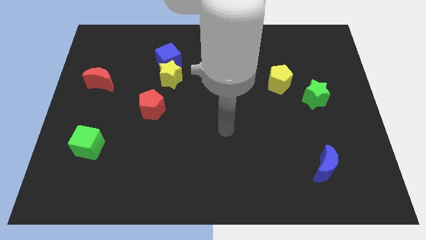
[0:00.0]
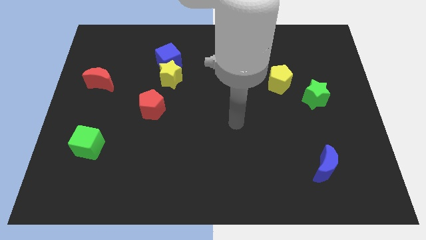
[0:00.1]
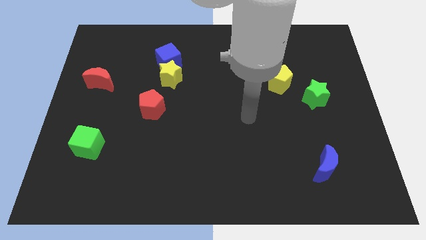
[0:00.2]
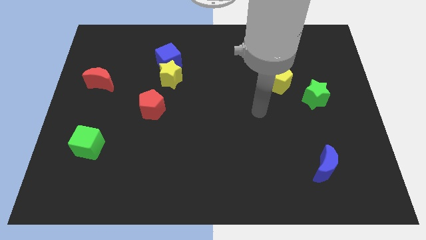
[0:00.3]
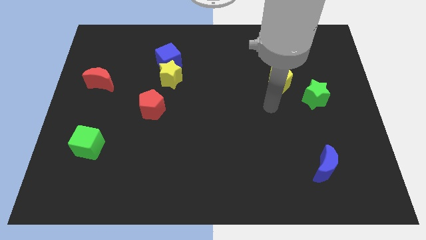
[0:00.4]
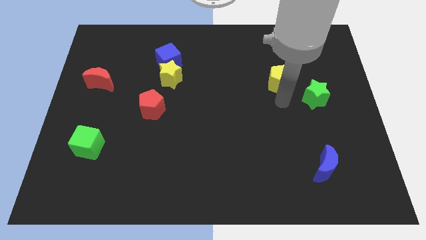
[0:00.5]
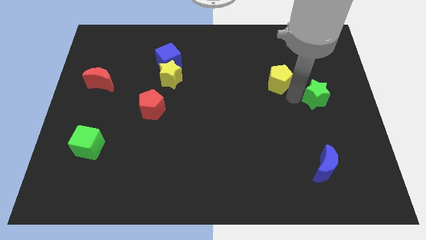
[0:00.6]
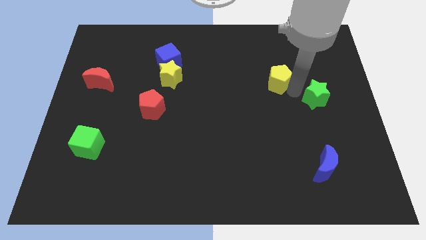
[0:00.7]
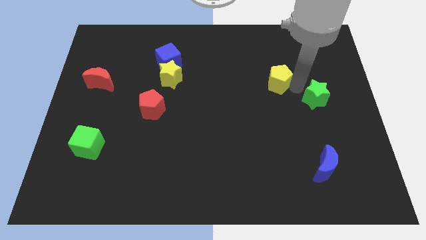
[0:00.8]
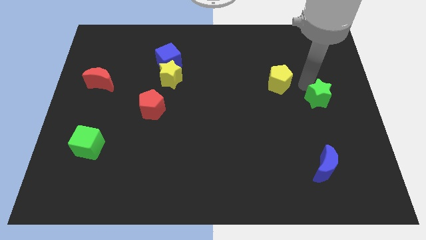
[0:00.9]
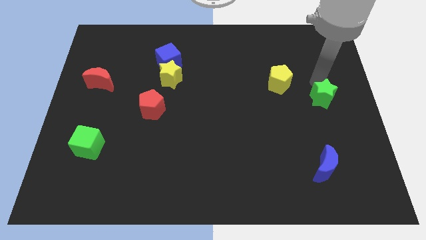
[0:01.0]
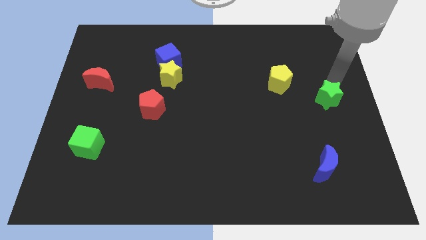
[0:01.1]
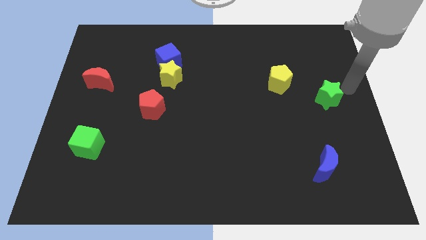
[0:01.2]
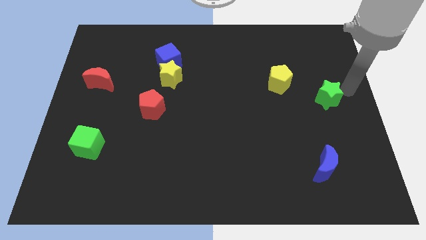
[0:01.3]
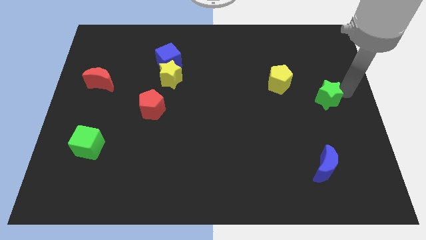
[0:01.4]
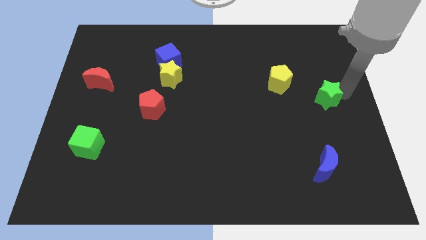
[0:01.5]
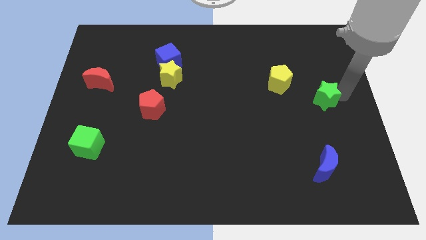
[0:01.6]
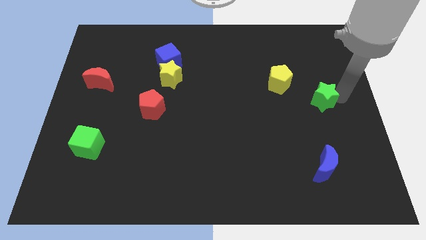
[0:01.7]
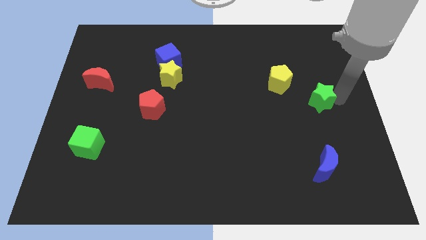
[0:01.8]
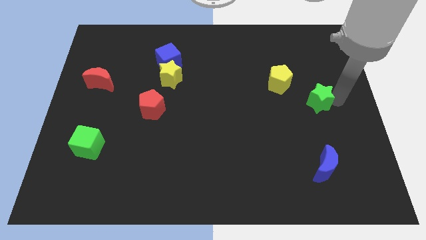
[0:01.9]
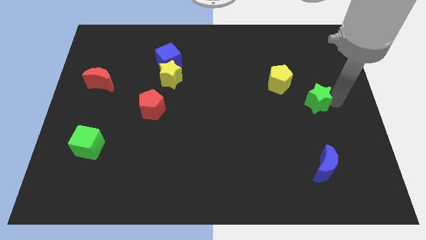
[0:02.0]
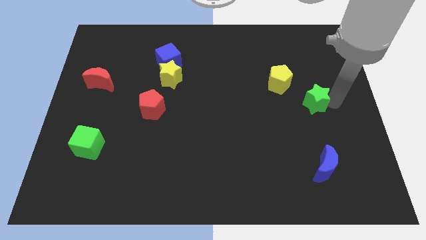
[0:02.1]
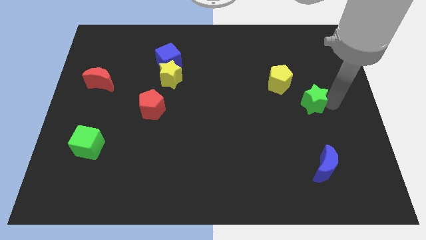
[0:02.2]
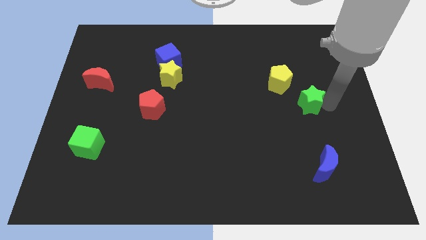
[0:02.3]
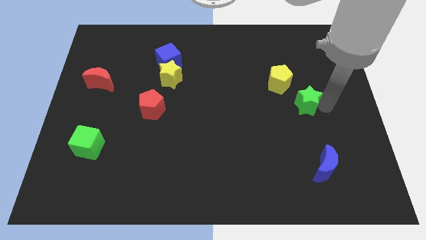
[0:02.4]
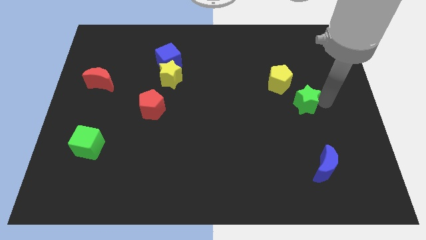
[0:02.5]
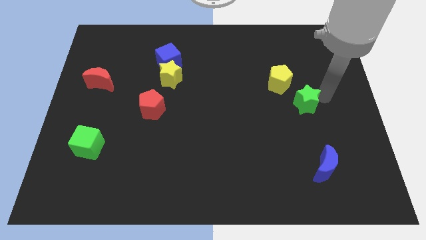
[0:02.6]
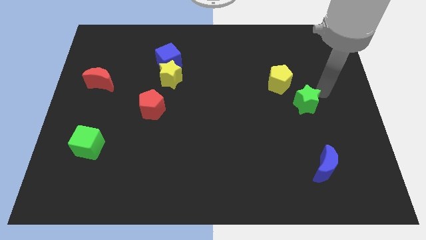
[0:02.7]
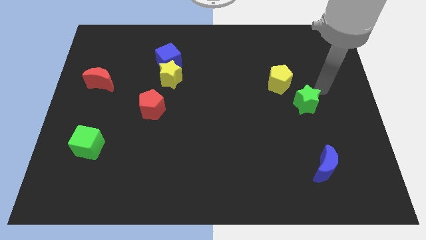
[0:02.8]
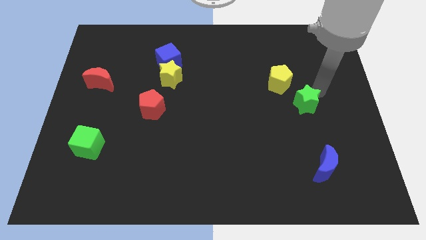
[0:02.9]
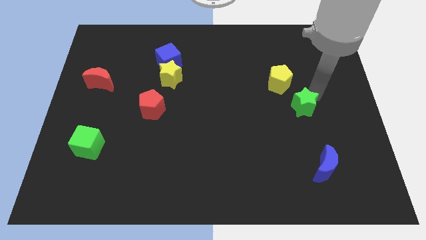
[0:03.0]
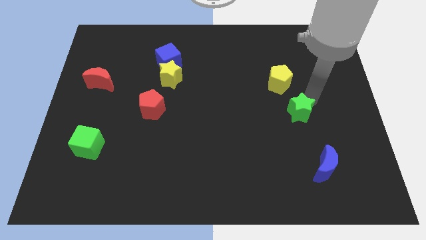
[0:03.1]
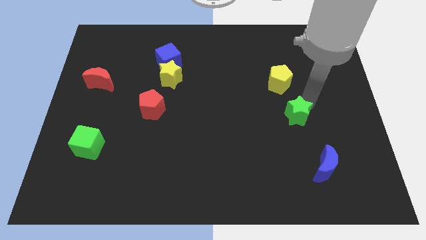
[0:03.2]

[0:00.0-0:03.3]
slightly push the green star down and to the left

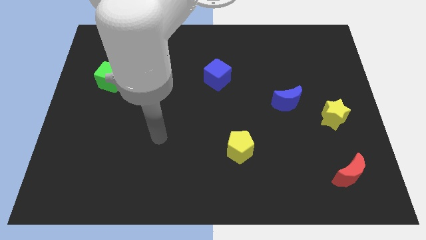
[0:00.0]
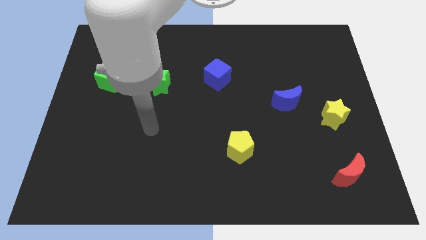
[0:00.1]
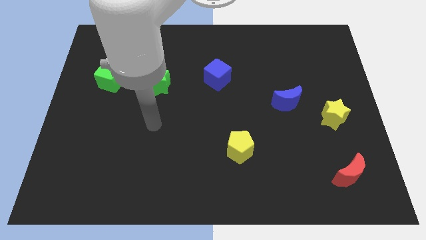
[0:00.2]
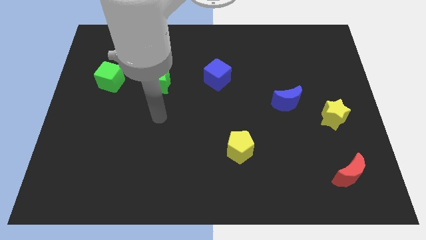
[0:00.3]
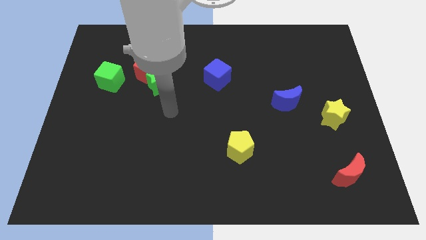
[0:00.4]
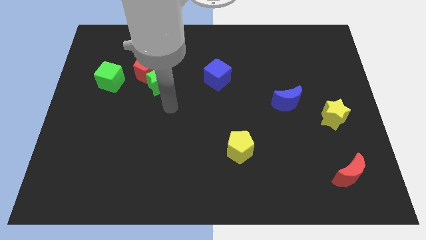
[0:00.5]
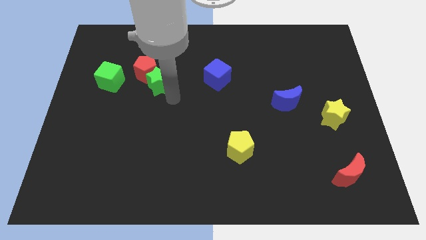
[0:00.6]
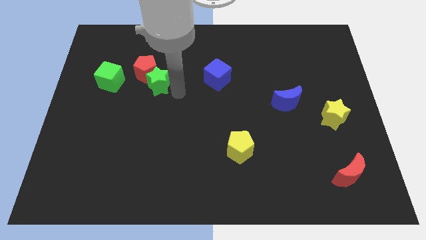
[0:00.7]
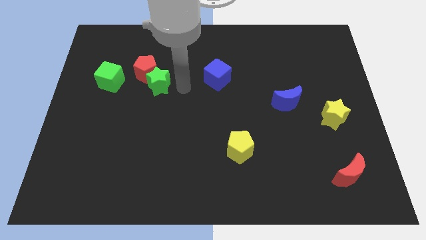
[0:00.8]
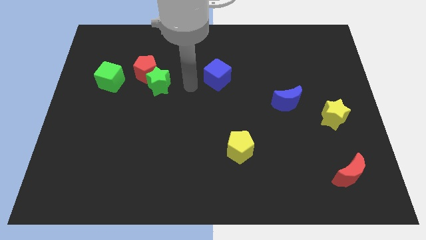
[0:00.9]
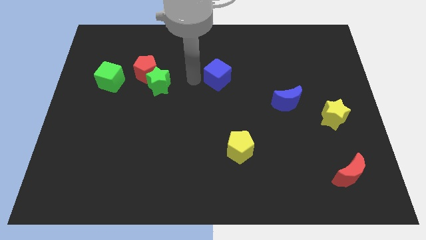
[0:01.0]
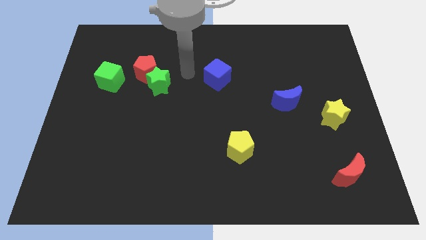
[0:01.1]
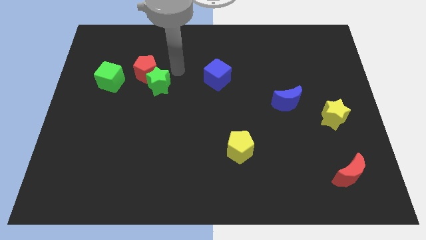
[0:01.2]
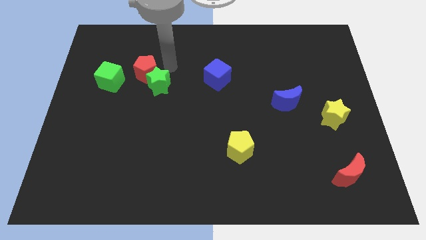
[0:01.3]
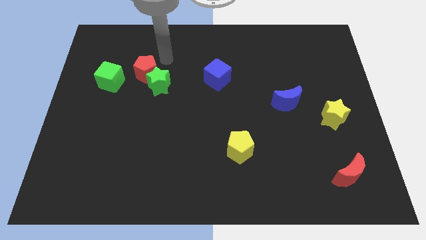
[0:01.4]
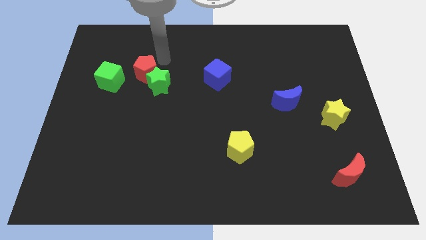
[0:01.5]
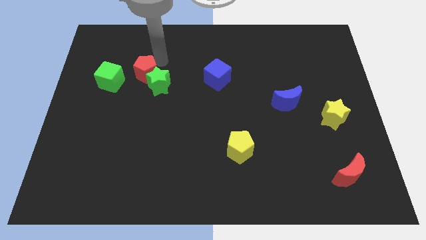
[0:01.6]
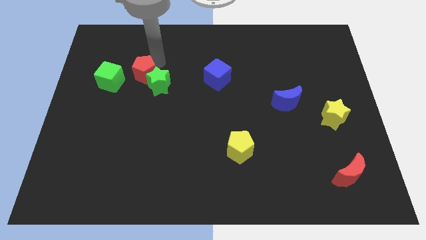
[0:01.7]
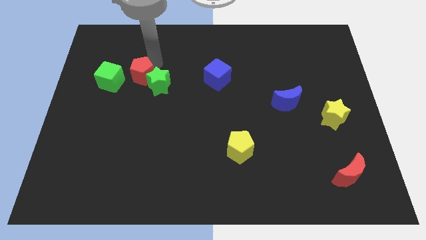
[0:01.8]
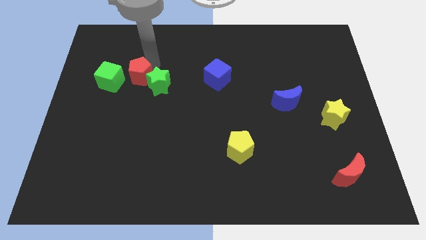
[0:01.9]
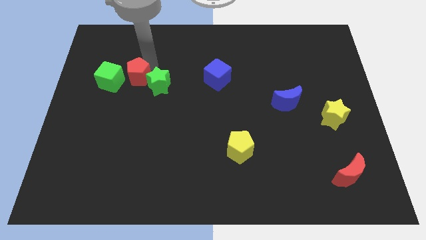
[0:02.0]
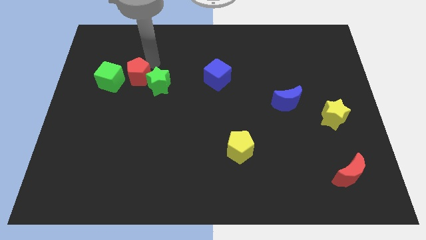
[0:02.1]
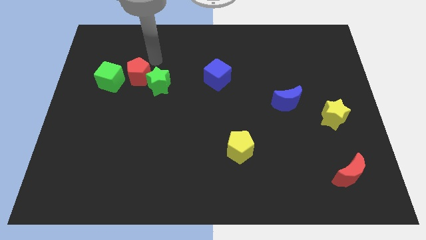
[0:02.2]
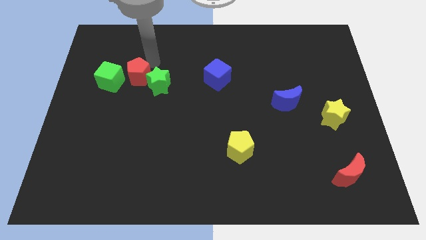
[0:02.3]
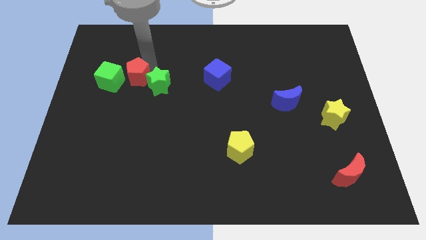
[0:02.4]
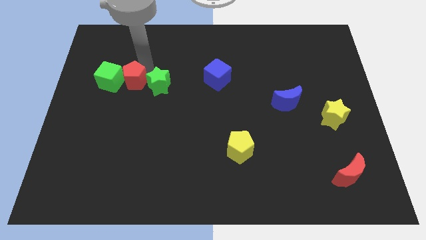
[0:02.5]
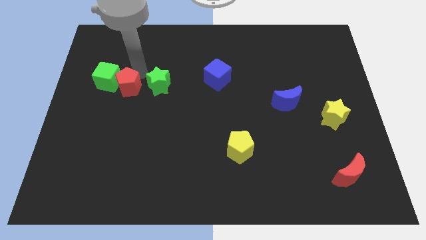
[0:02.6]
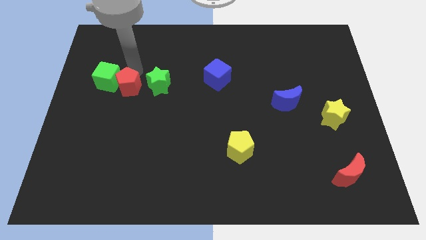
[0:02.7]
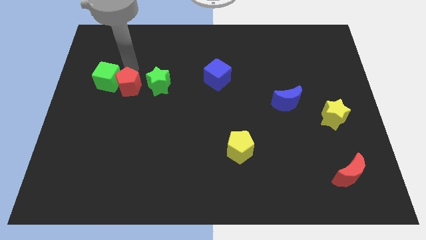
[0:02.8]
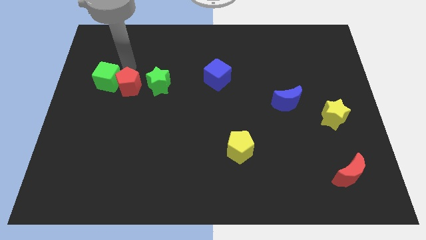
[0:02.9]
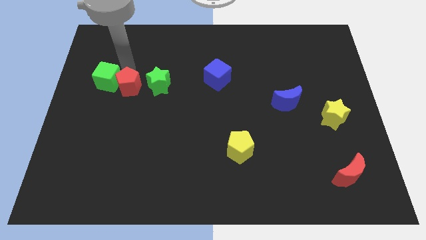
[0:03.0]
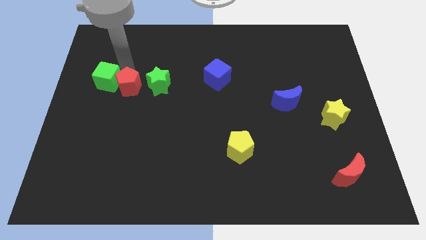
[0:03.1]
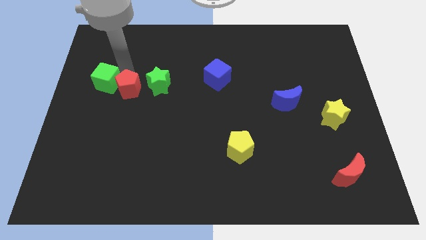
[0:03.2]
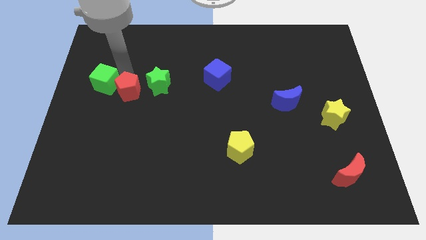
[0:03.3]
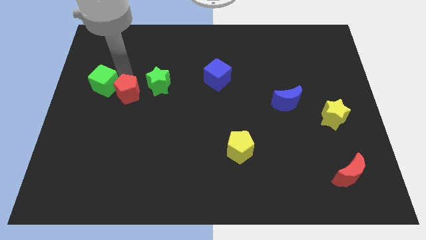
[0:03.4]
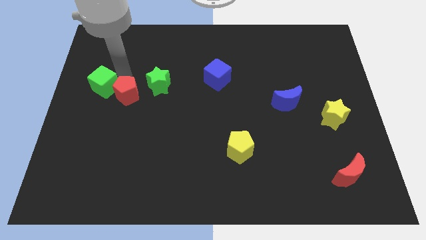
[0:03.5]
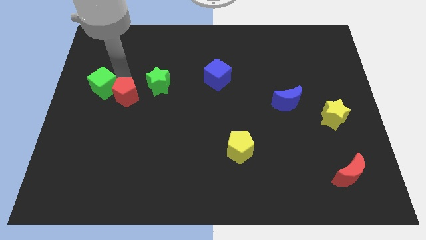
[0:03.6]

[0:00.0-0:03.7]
move the red pentagon down a little

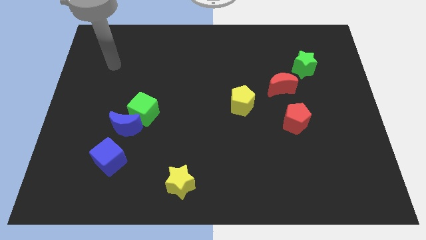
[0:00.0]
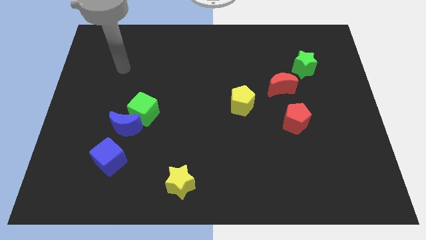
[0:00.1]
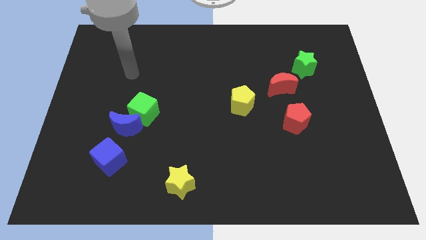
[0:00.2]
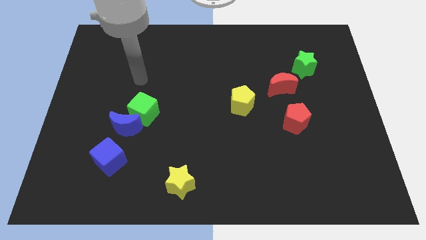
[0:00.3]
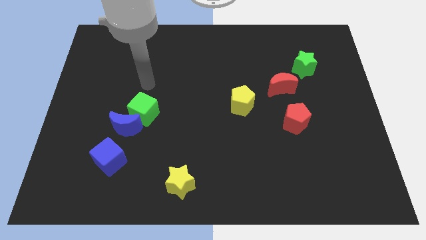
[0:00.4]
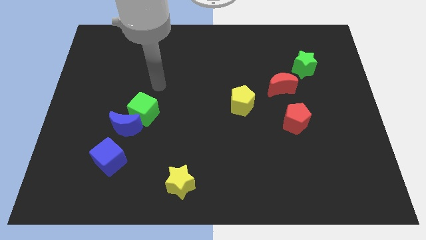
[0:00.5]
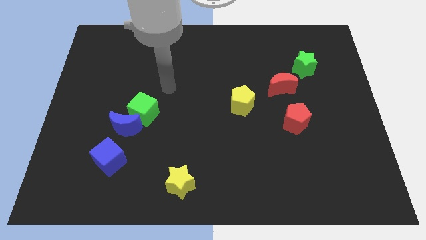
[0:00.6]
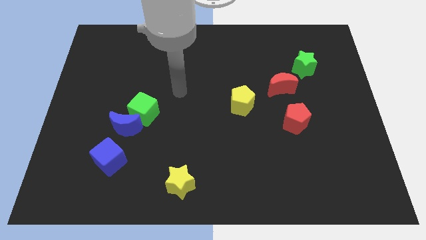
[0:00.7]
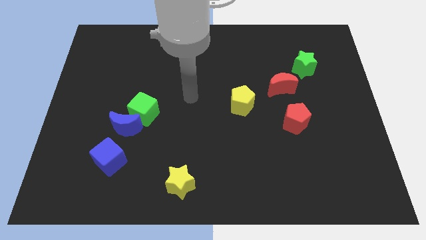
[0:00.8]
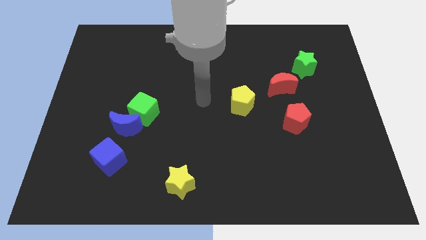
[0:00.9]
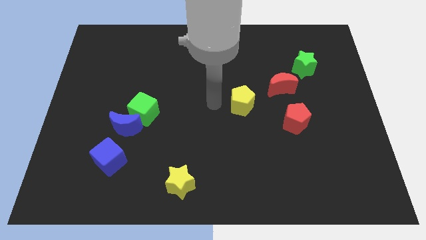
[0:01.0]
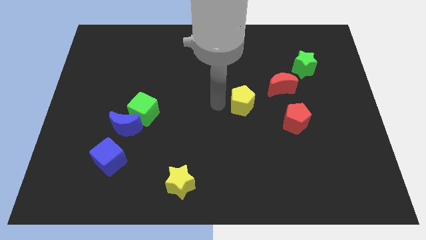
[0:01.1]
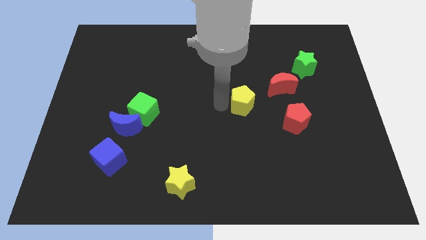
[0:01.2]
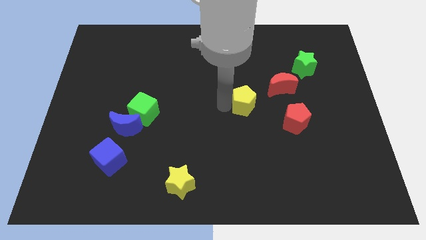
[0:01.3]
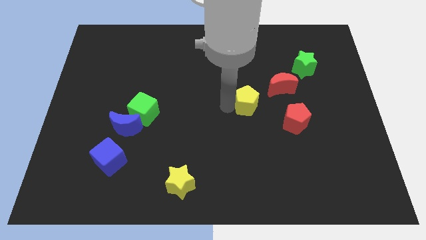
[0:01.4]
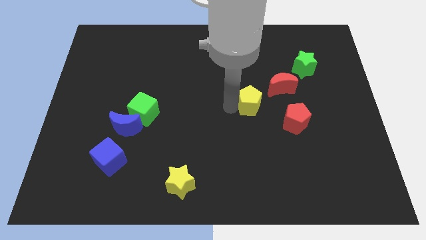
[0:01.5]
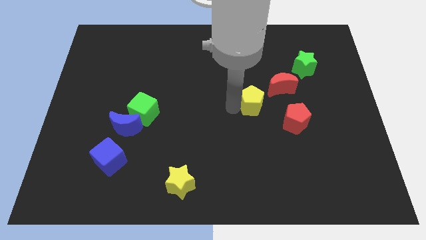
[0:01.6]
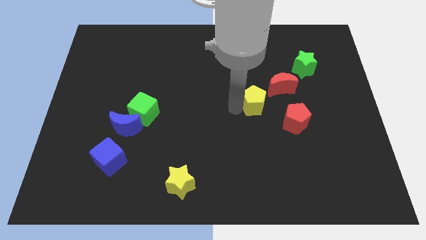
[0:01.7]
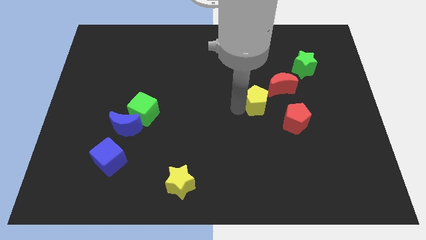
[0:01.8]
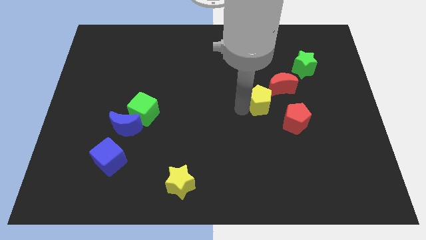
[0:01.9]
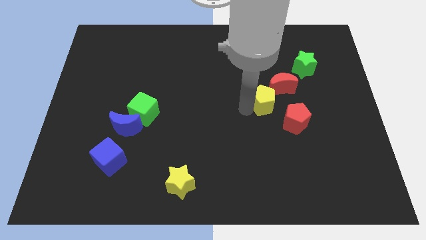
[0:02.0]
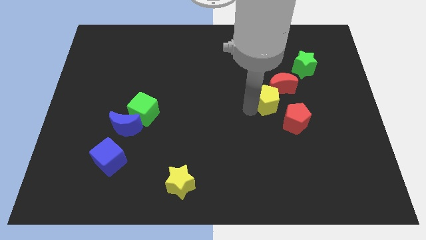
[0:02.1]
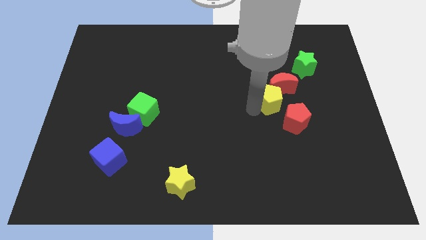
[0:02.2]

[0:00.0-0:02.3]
slide the yellow pentagon to the right somewhat
